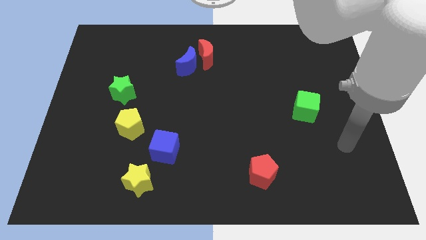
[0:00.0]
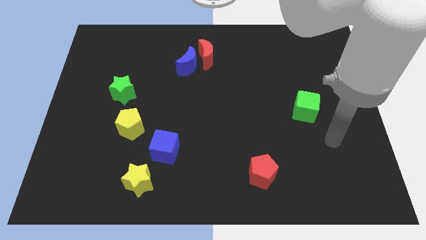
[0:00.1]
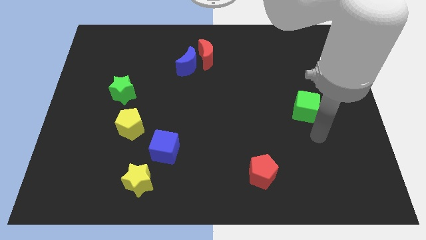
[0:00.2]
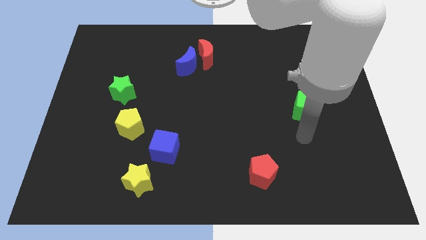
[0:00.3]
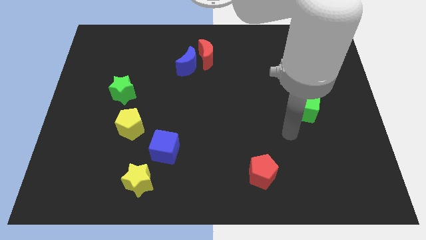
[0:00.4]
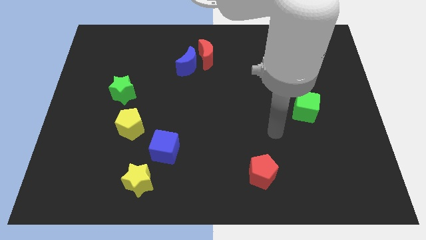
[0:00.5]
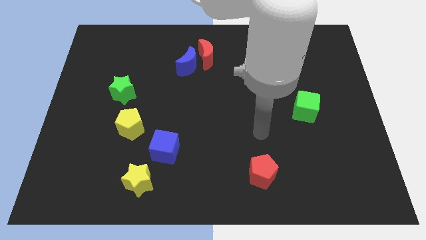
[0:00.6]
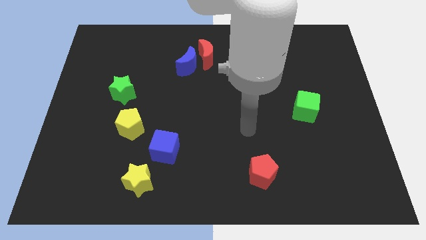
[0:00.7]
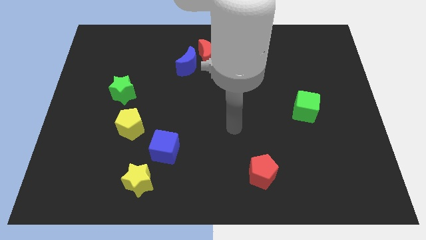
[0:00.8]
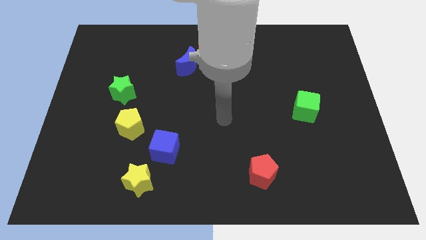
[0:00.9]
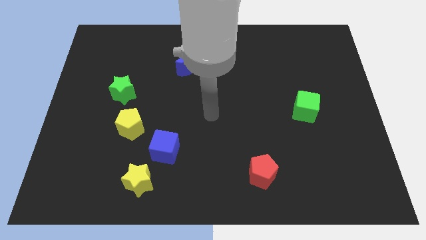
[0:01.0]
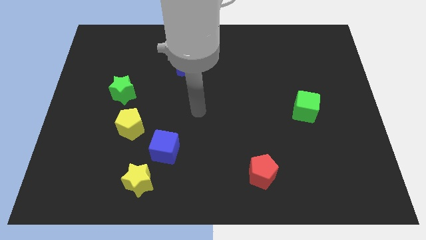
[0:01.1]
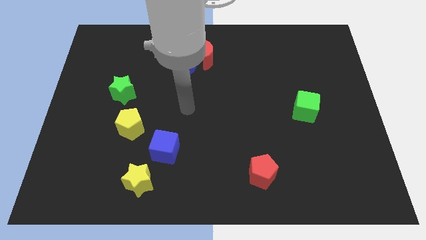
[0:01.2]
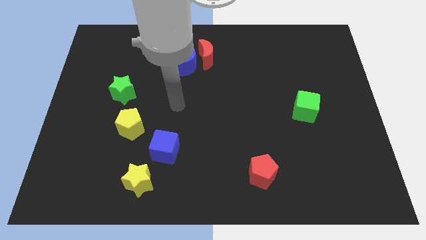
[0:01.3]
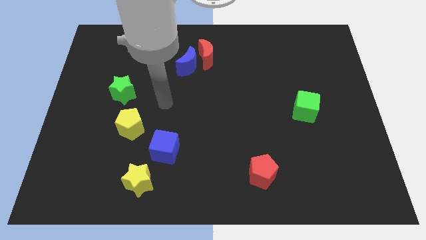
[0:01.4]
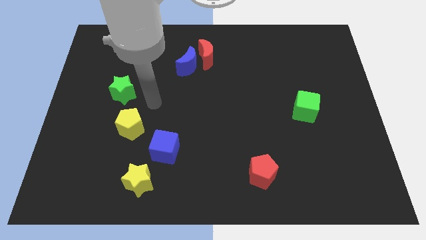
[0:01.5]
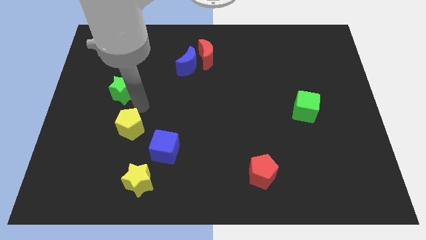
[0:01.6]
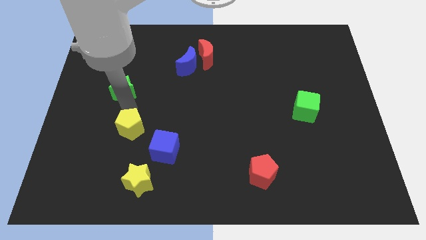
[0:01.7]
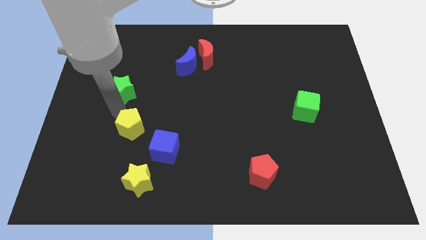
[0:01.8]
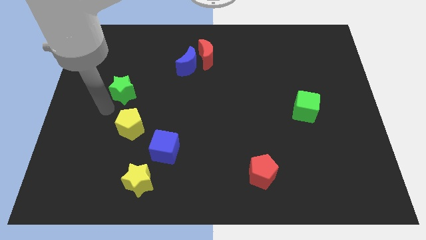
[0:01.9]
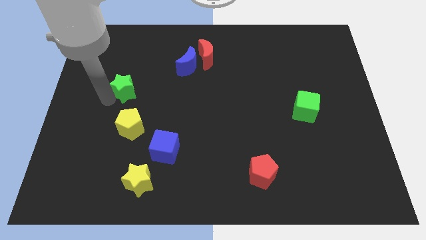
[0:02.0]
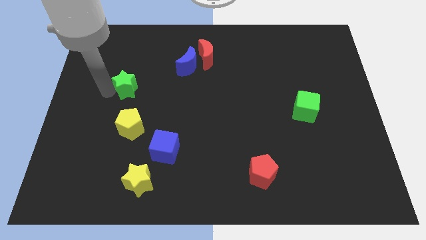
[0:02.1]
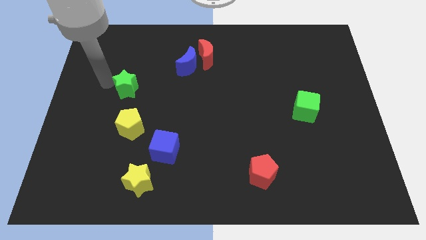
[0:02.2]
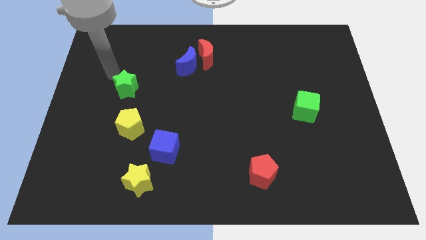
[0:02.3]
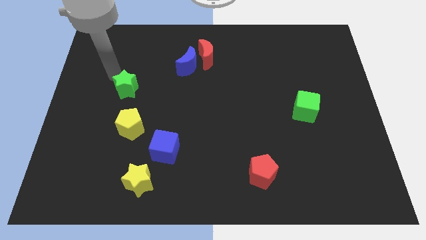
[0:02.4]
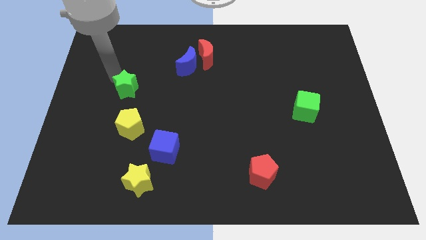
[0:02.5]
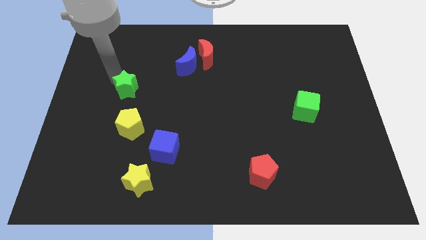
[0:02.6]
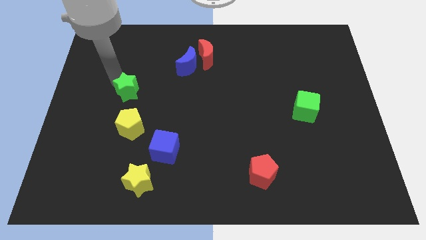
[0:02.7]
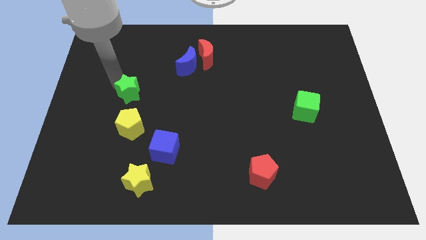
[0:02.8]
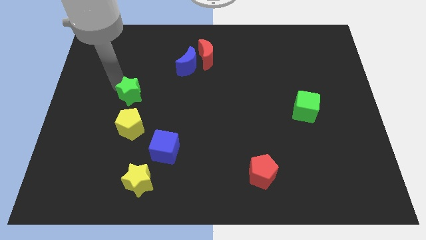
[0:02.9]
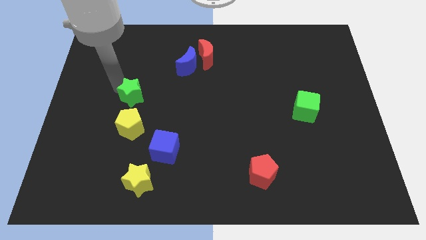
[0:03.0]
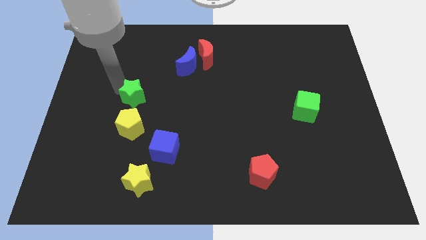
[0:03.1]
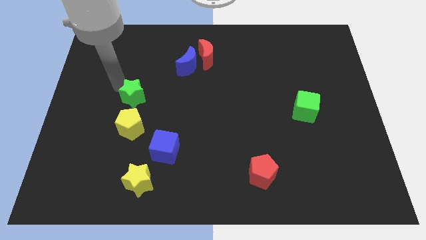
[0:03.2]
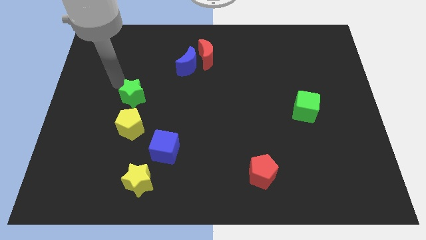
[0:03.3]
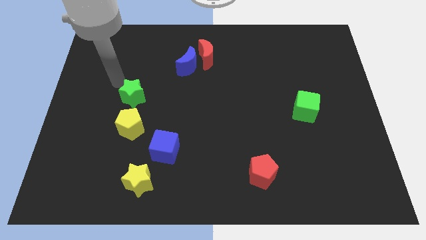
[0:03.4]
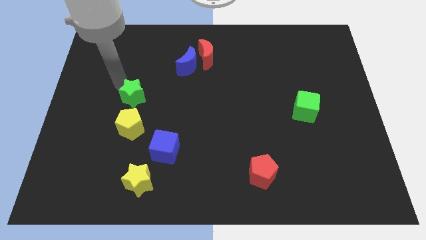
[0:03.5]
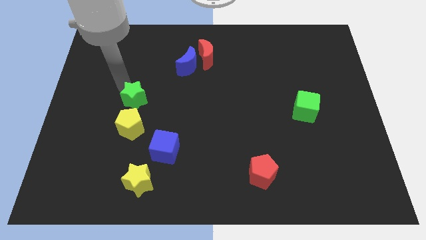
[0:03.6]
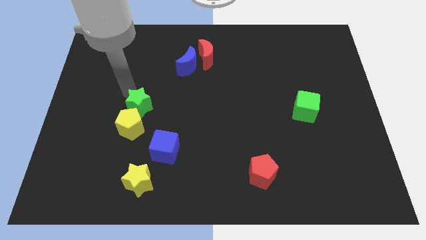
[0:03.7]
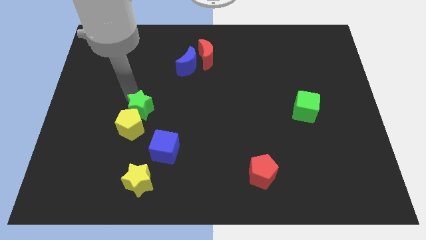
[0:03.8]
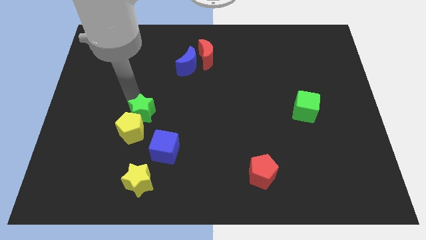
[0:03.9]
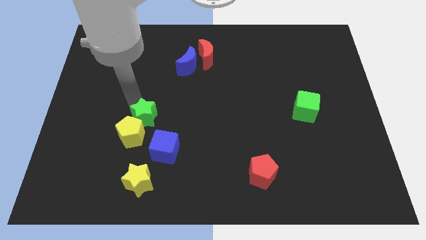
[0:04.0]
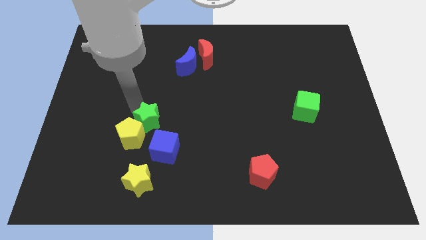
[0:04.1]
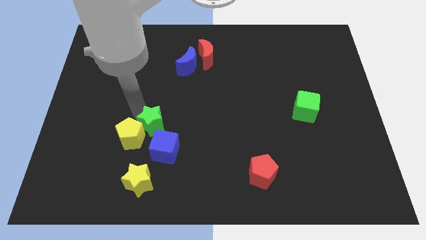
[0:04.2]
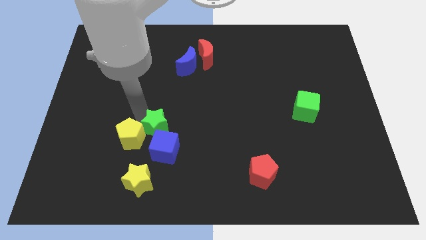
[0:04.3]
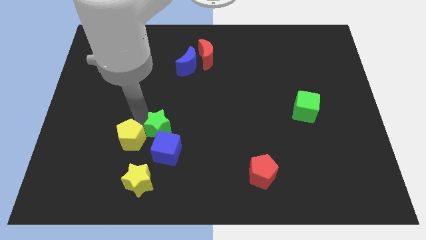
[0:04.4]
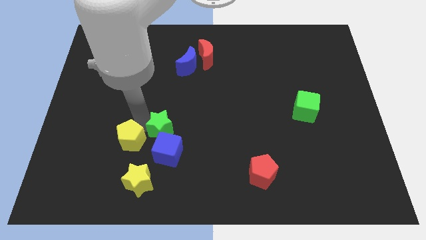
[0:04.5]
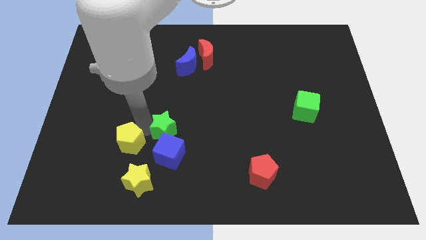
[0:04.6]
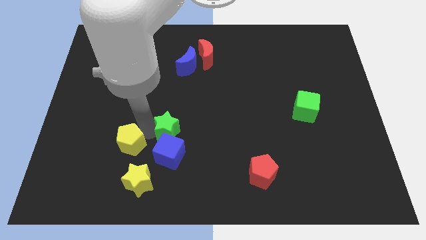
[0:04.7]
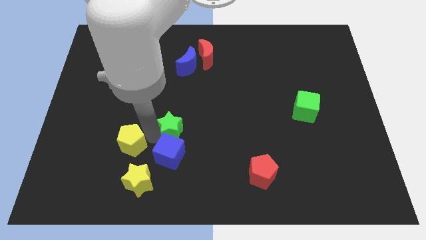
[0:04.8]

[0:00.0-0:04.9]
slide the green star to the top right side of the blue cube

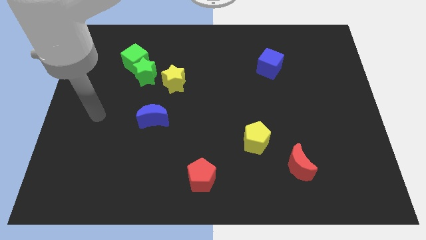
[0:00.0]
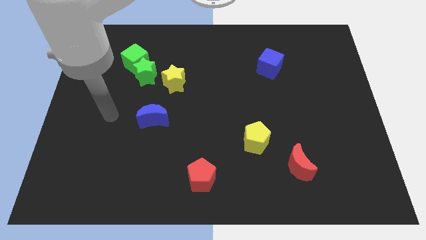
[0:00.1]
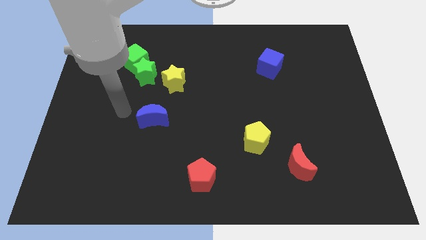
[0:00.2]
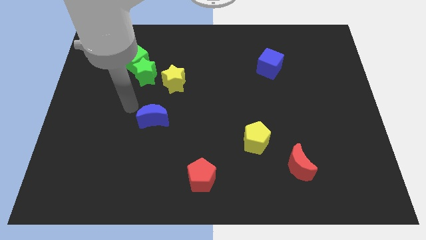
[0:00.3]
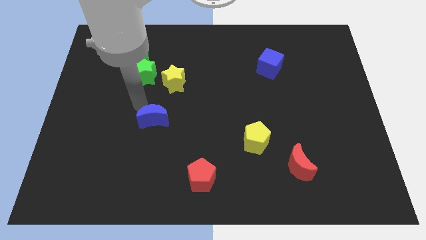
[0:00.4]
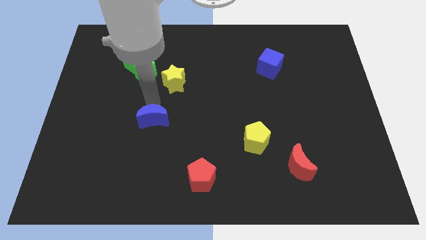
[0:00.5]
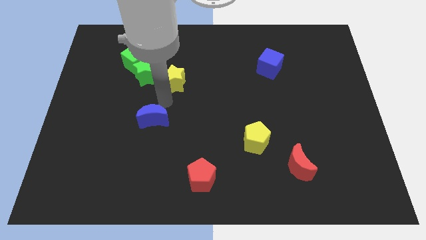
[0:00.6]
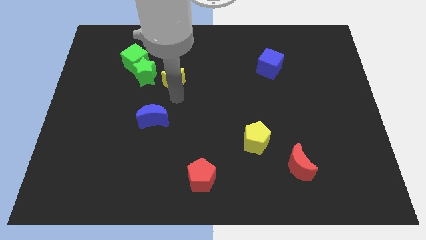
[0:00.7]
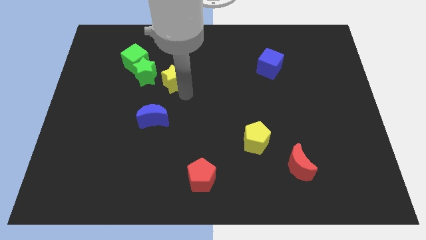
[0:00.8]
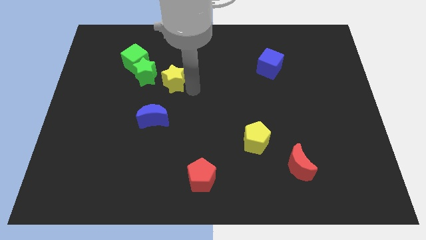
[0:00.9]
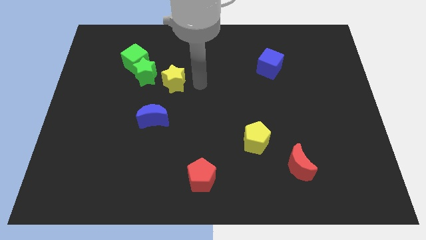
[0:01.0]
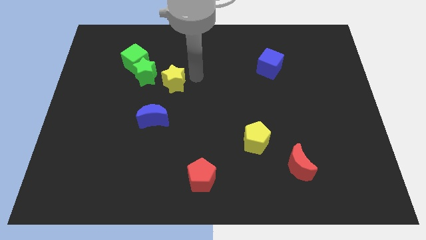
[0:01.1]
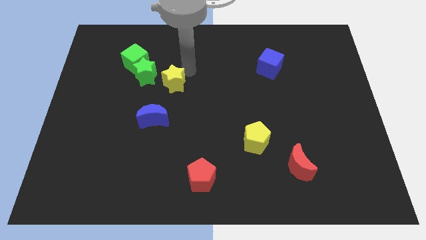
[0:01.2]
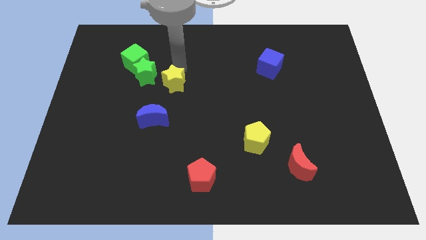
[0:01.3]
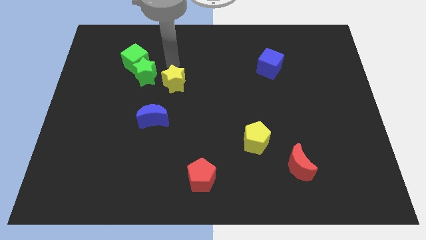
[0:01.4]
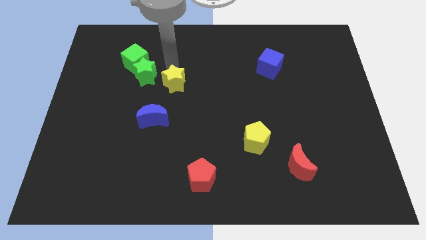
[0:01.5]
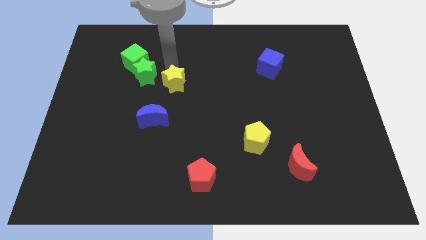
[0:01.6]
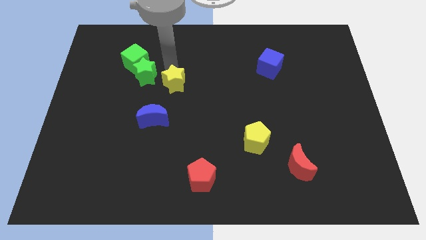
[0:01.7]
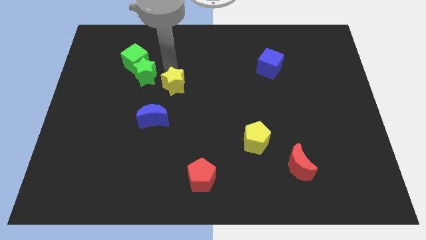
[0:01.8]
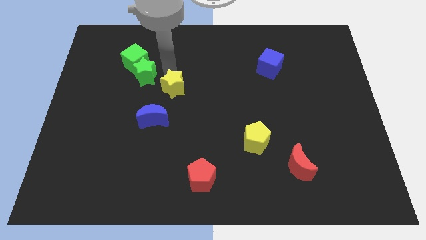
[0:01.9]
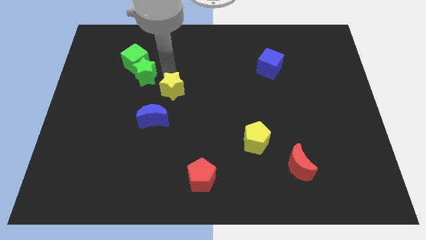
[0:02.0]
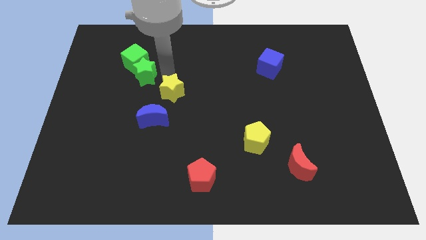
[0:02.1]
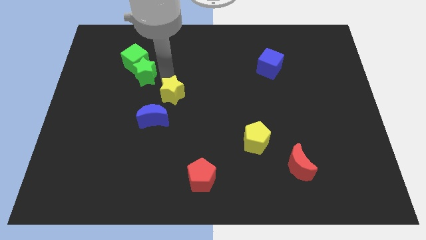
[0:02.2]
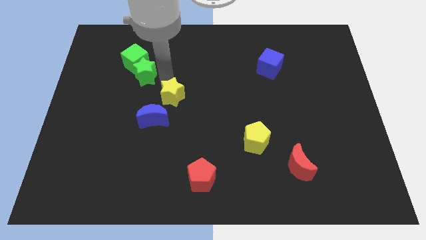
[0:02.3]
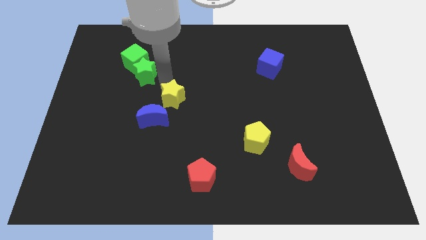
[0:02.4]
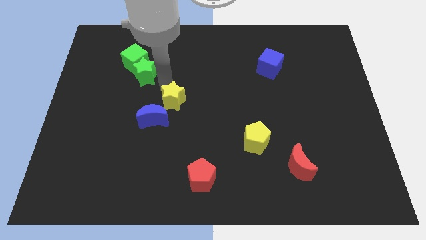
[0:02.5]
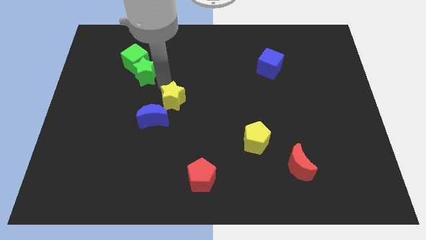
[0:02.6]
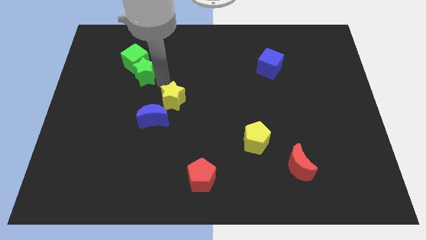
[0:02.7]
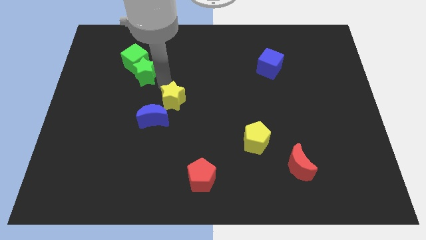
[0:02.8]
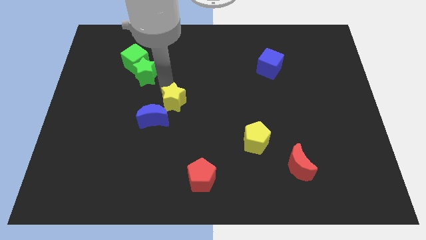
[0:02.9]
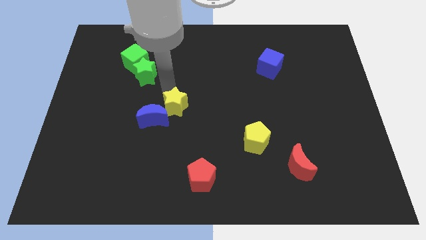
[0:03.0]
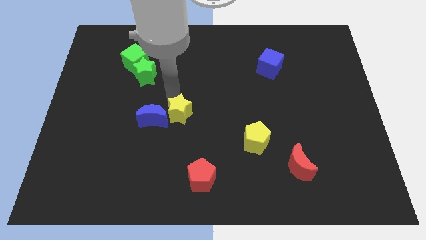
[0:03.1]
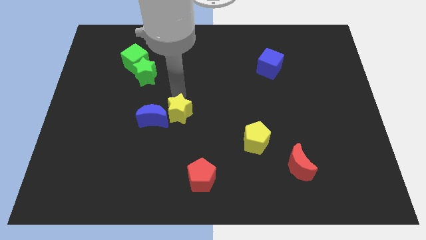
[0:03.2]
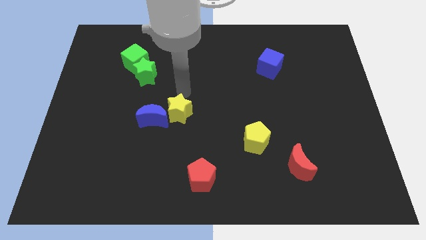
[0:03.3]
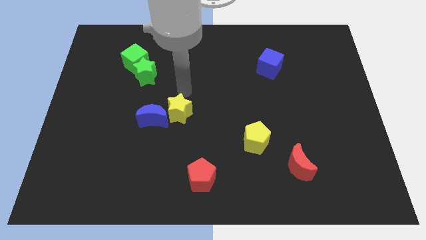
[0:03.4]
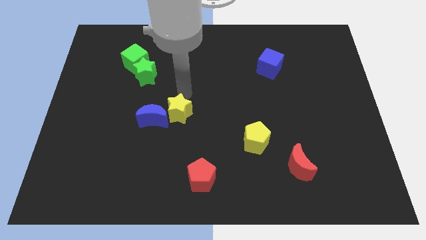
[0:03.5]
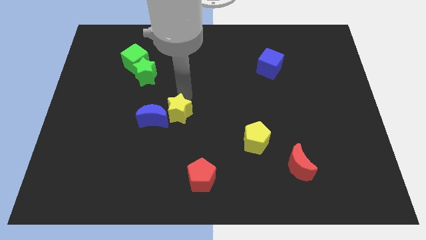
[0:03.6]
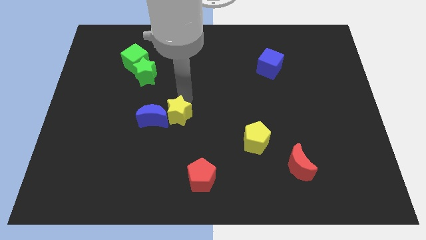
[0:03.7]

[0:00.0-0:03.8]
move the yellow star diagonally down and to the right of the blue moon
